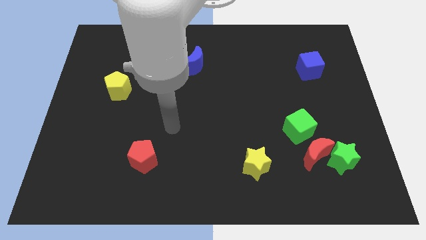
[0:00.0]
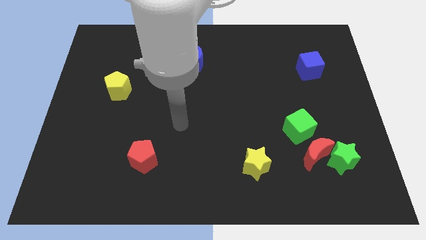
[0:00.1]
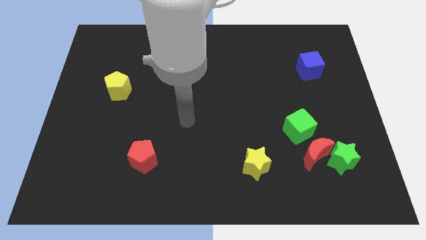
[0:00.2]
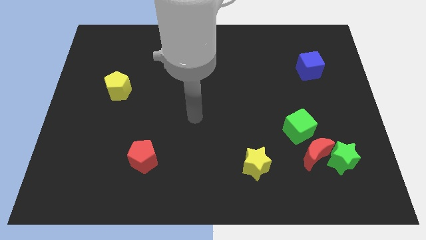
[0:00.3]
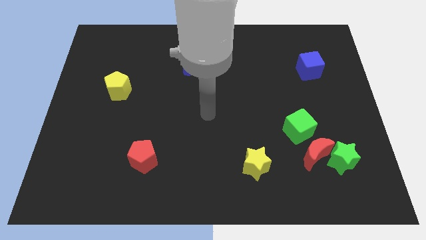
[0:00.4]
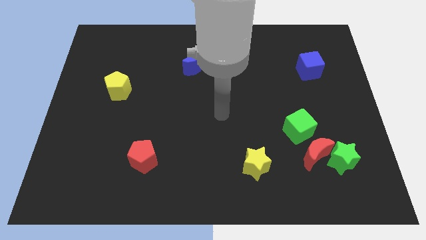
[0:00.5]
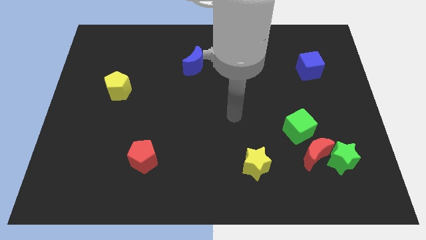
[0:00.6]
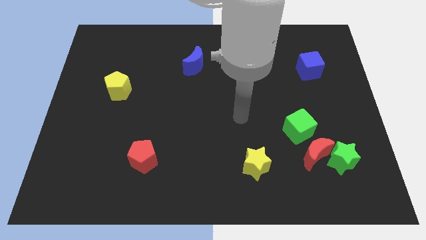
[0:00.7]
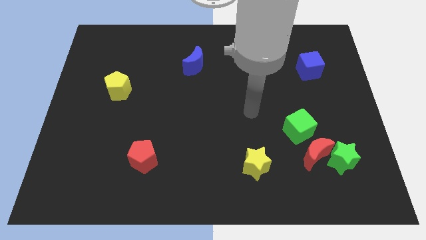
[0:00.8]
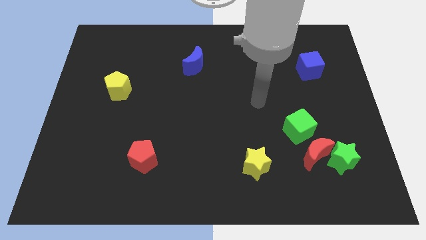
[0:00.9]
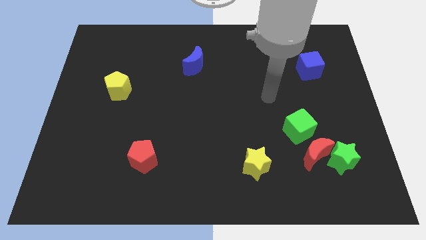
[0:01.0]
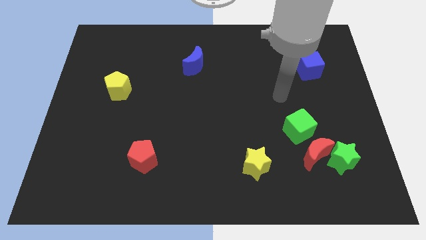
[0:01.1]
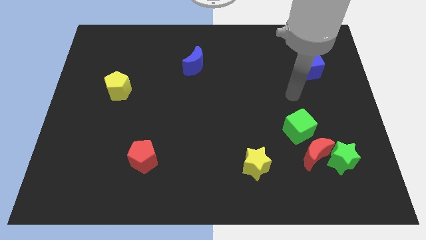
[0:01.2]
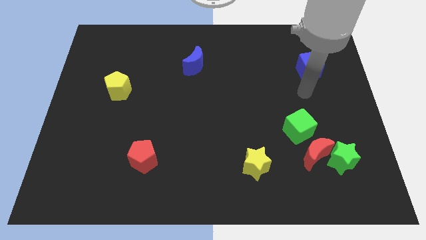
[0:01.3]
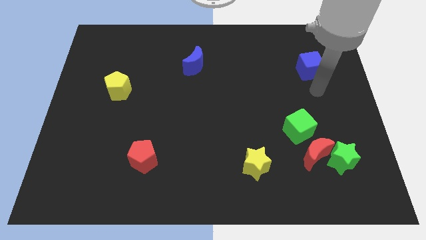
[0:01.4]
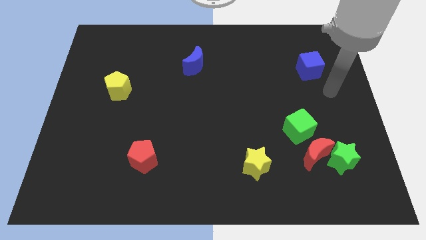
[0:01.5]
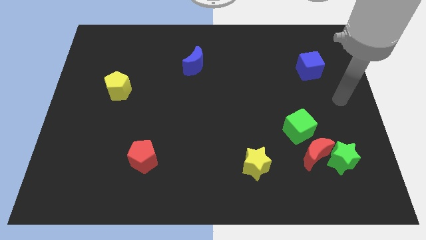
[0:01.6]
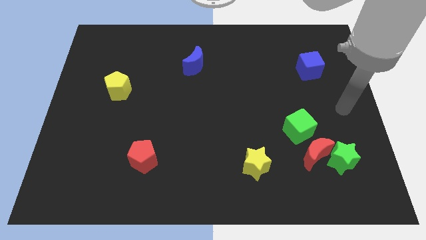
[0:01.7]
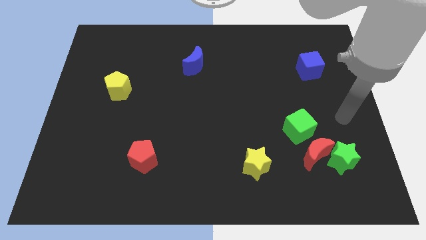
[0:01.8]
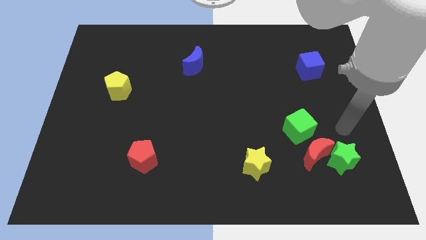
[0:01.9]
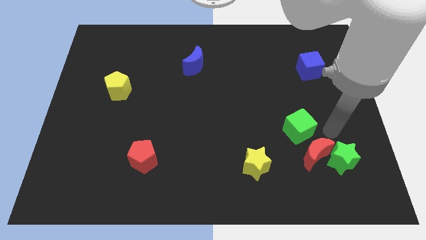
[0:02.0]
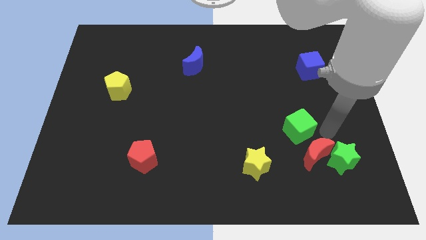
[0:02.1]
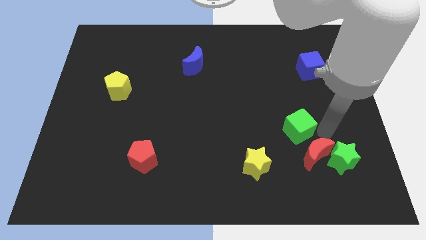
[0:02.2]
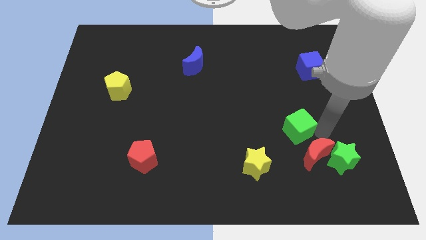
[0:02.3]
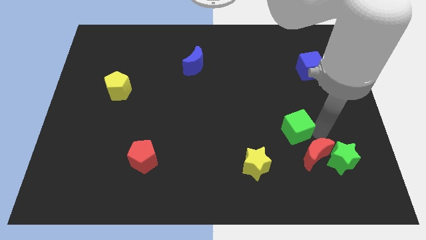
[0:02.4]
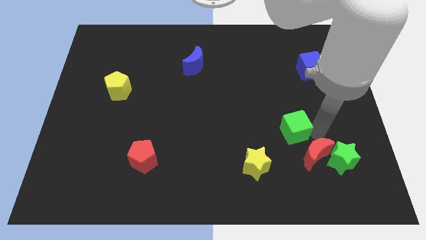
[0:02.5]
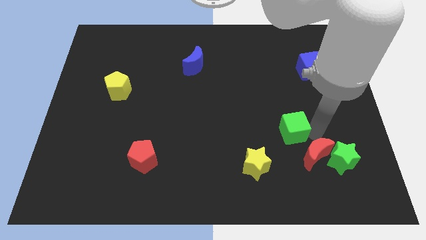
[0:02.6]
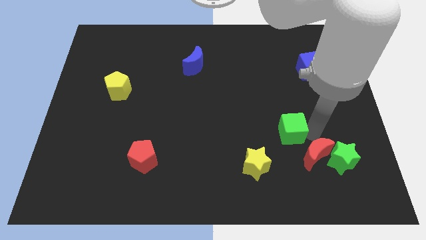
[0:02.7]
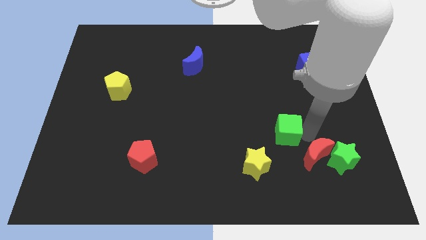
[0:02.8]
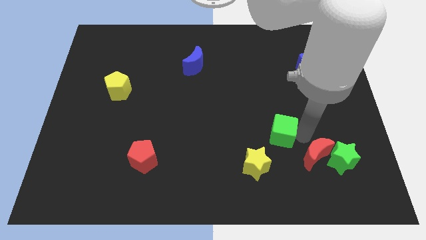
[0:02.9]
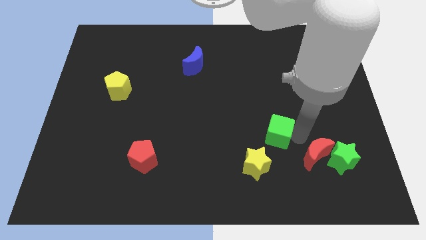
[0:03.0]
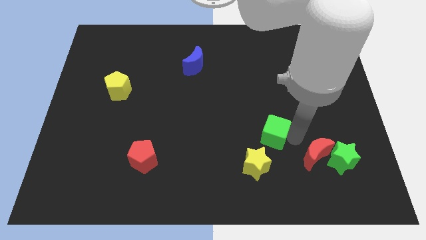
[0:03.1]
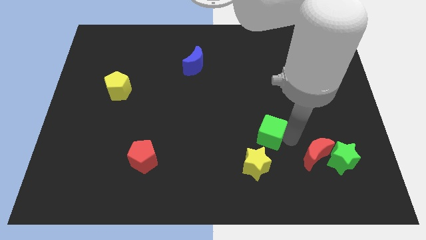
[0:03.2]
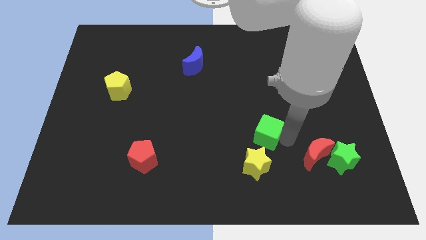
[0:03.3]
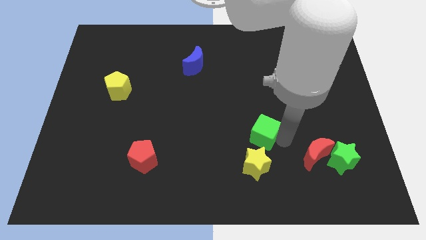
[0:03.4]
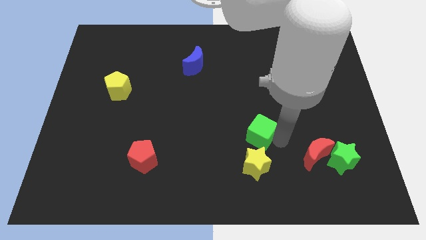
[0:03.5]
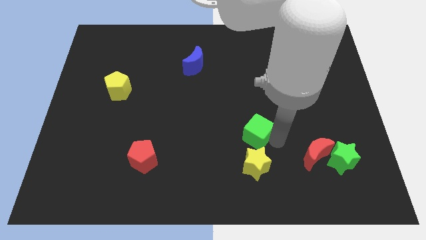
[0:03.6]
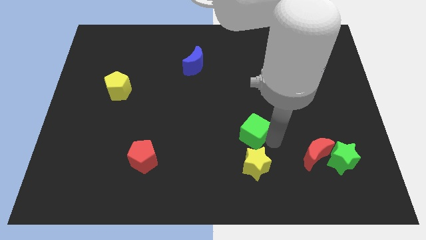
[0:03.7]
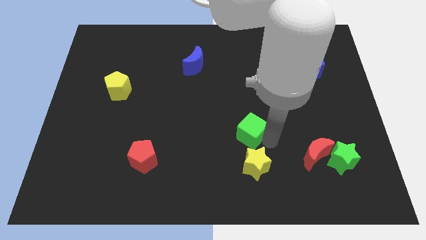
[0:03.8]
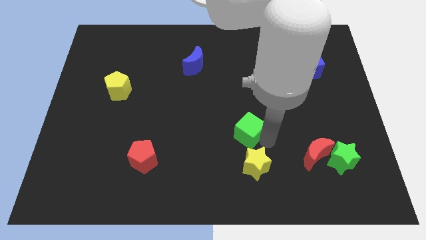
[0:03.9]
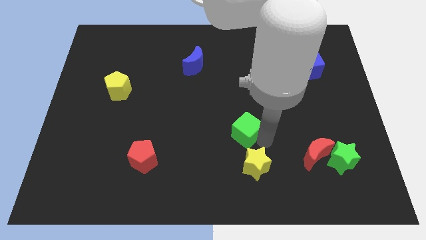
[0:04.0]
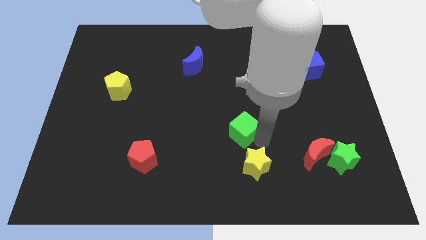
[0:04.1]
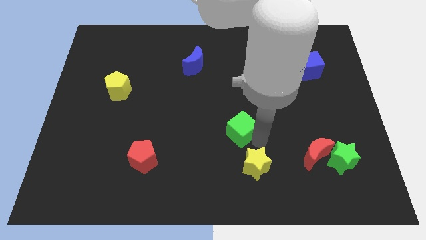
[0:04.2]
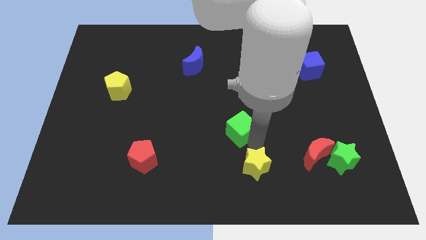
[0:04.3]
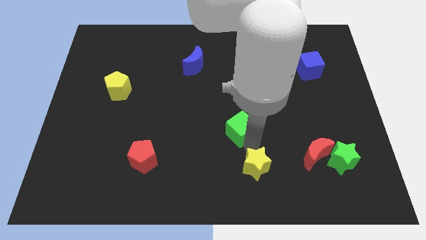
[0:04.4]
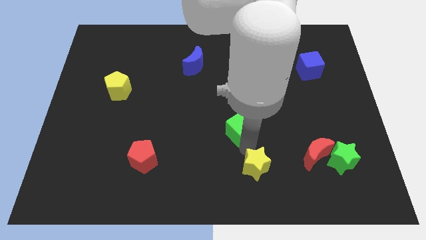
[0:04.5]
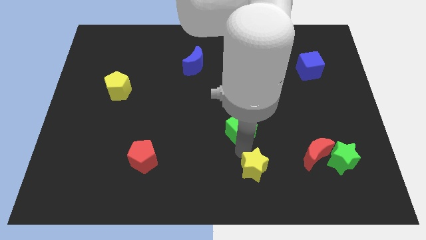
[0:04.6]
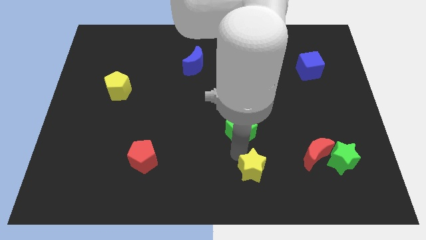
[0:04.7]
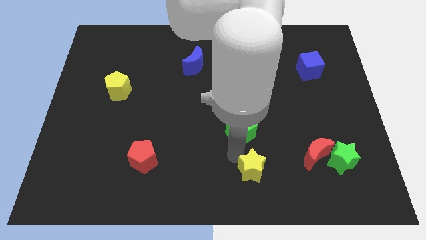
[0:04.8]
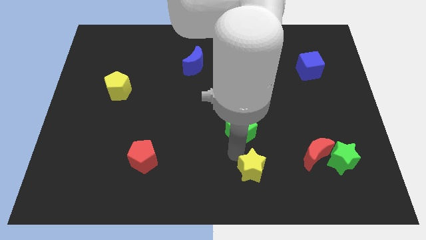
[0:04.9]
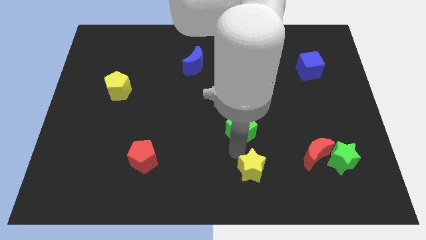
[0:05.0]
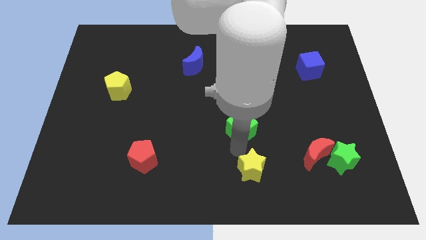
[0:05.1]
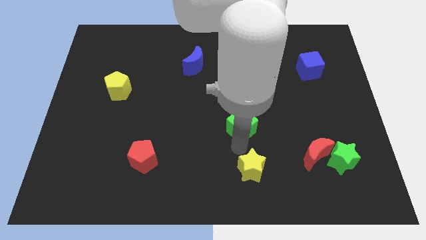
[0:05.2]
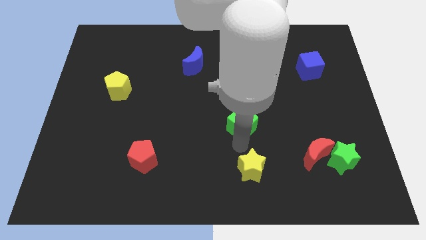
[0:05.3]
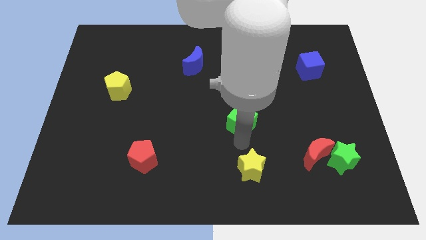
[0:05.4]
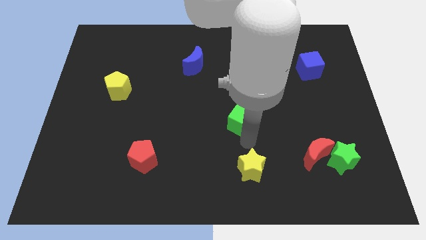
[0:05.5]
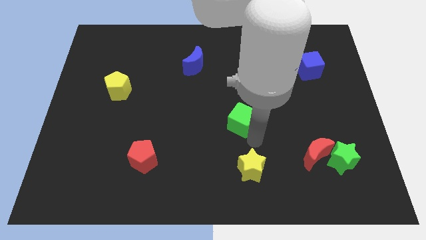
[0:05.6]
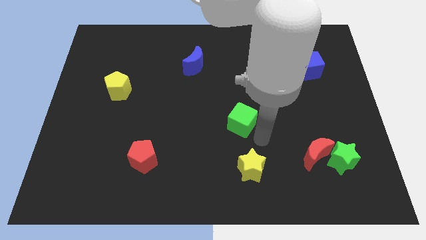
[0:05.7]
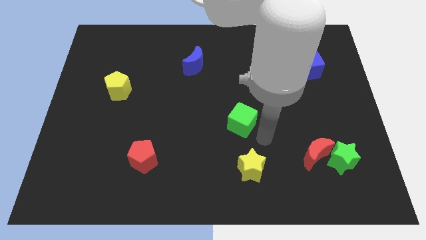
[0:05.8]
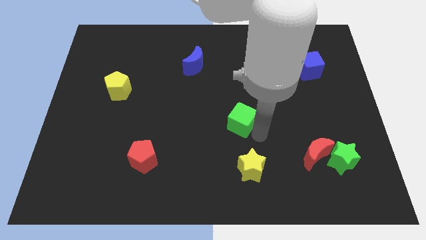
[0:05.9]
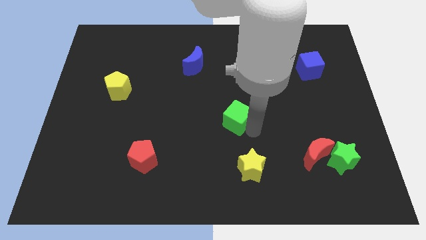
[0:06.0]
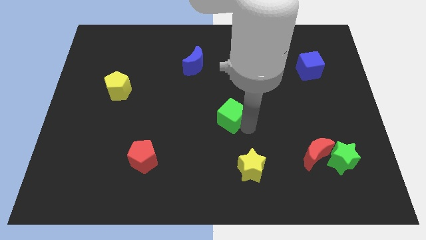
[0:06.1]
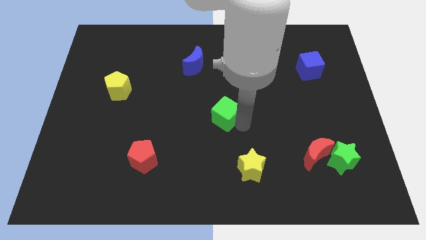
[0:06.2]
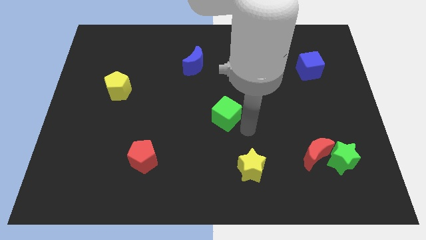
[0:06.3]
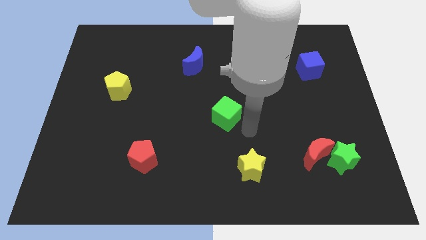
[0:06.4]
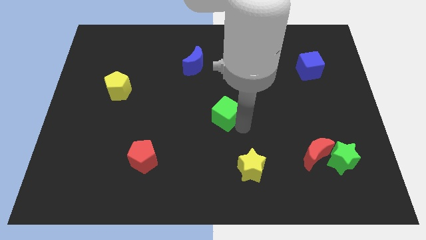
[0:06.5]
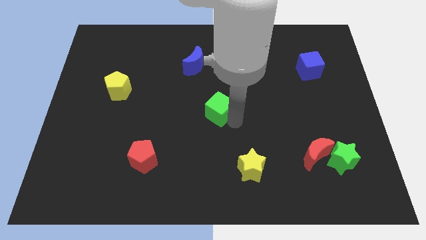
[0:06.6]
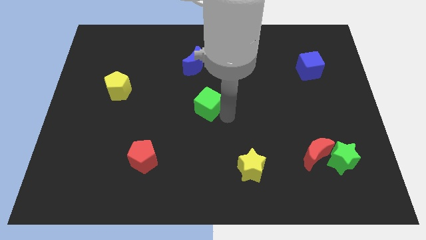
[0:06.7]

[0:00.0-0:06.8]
push the green cube to the bottom side of the blue moon
